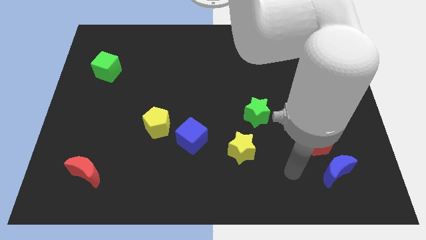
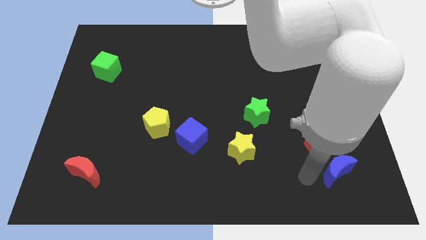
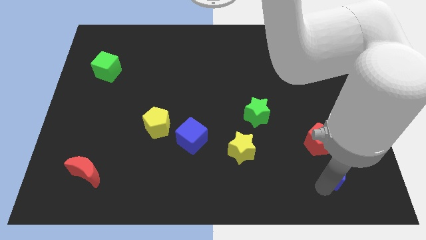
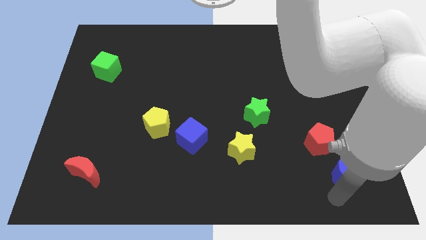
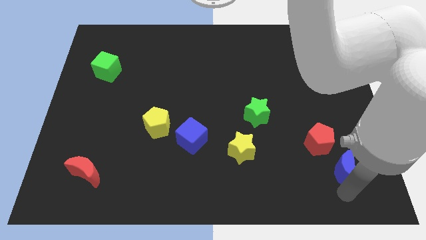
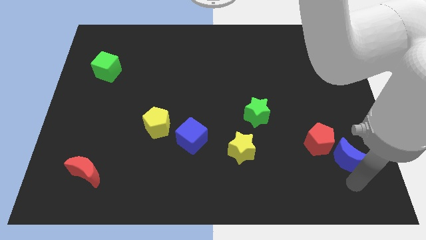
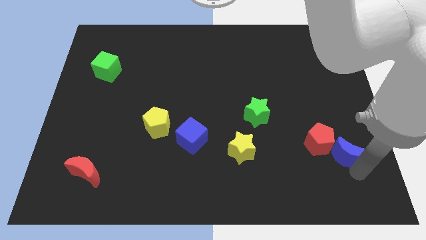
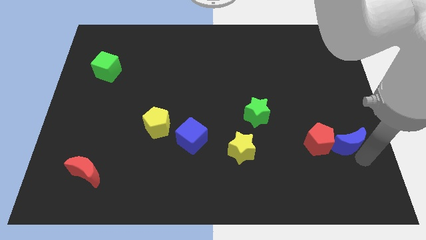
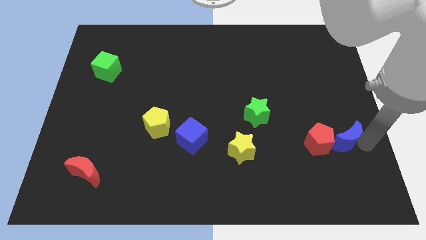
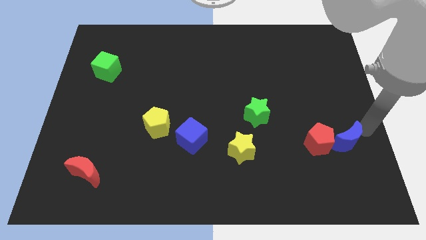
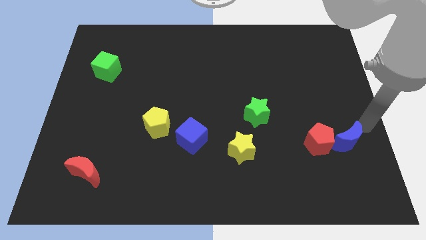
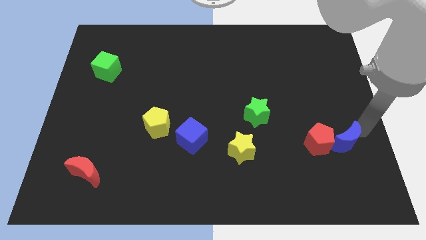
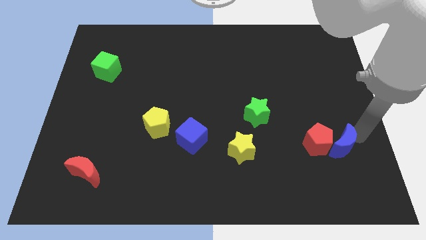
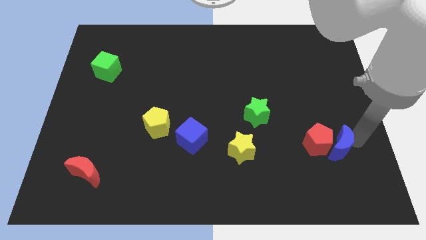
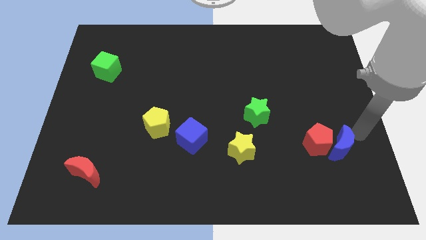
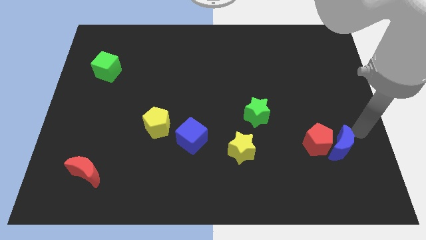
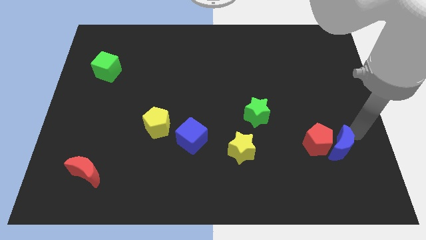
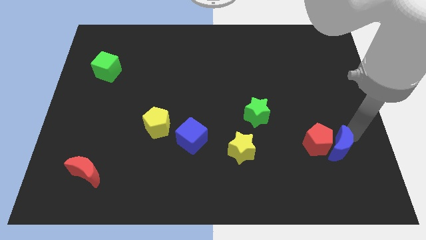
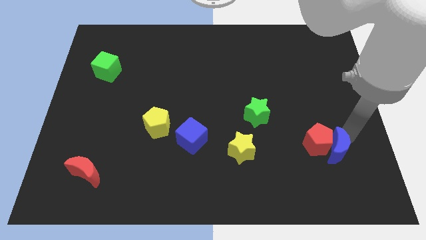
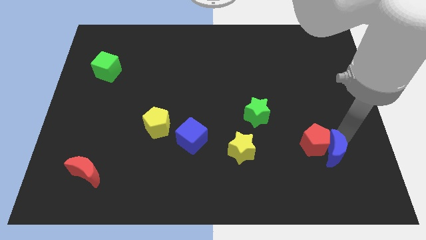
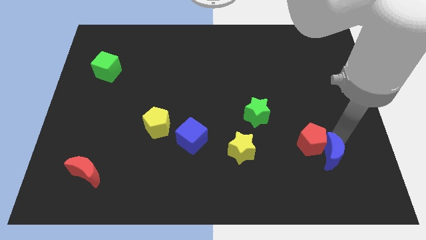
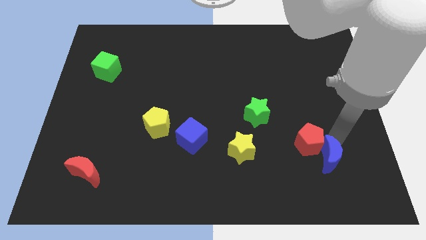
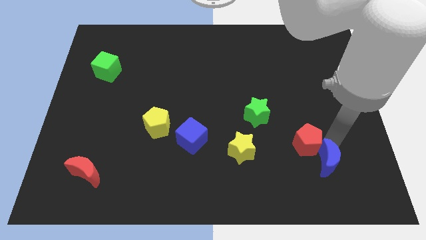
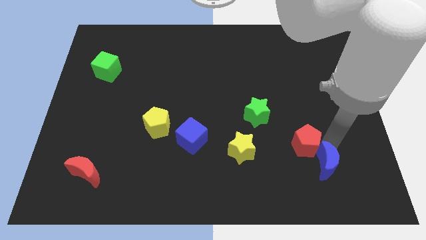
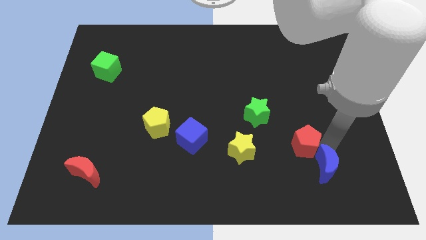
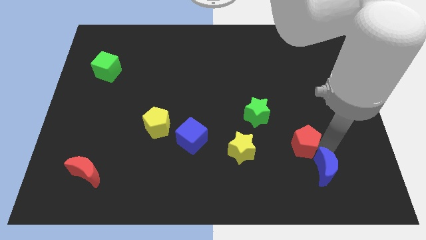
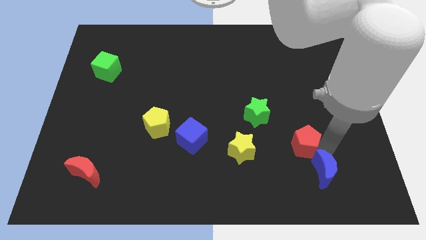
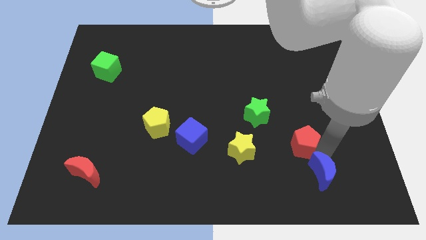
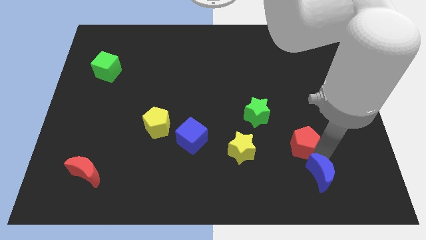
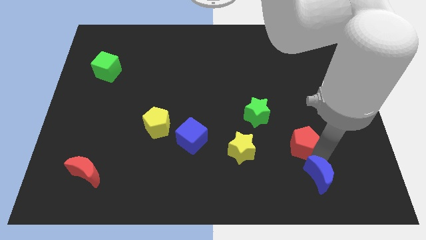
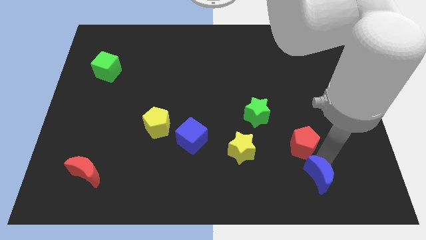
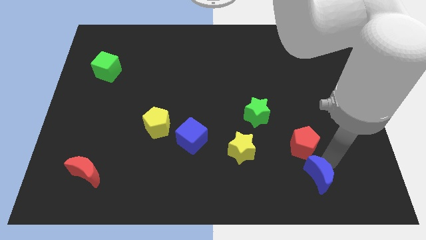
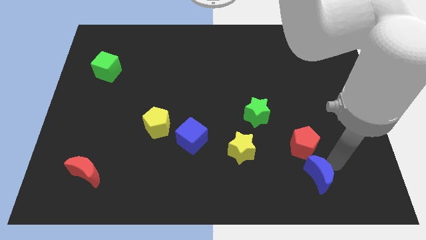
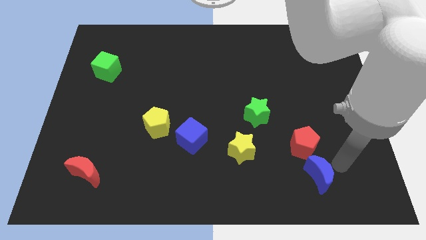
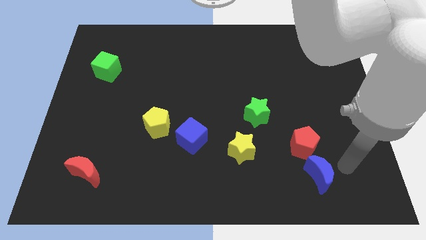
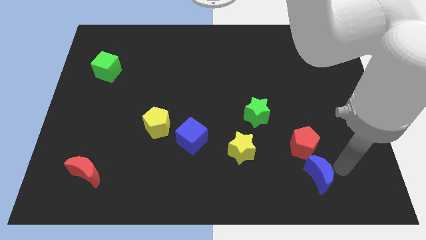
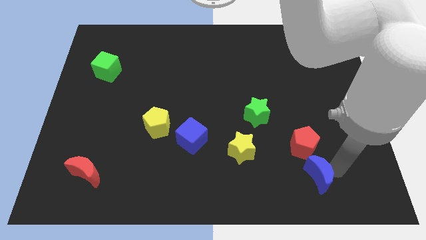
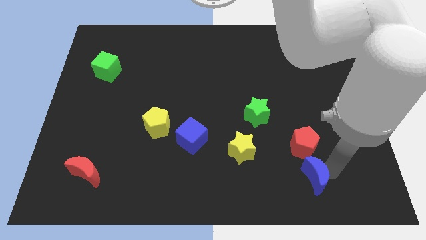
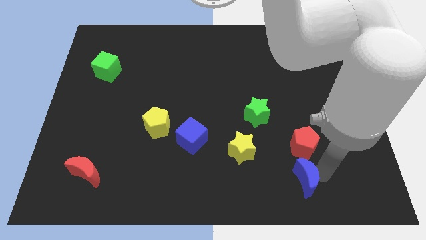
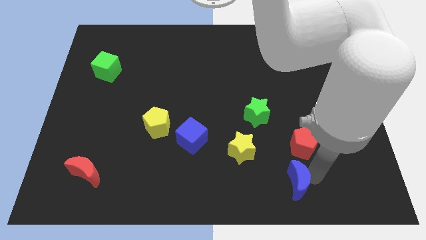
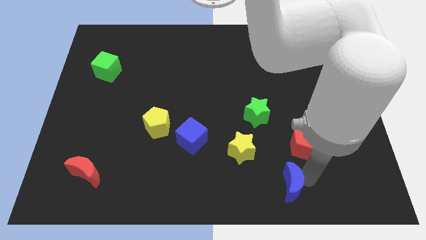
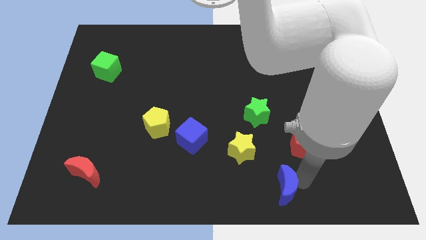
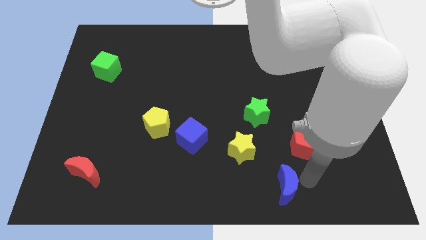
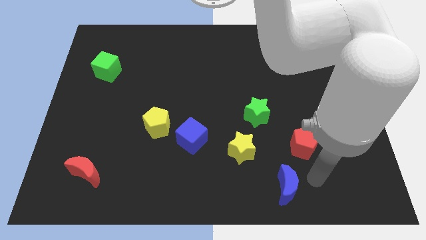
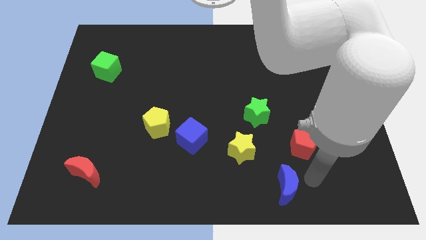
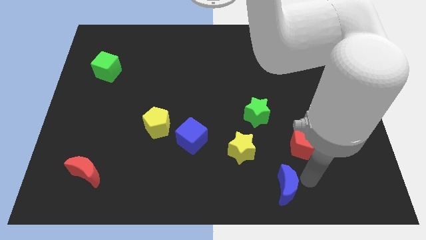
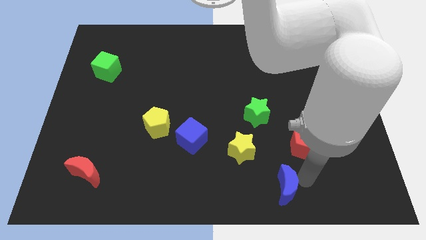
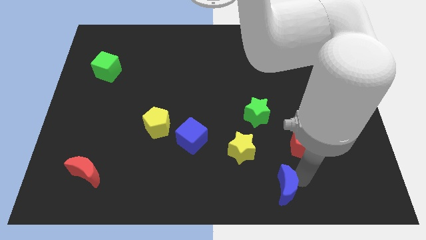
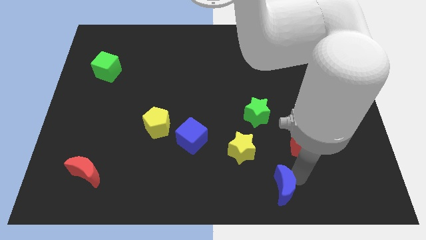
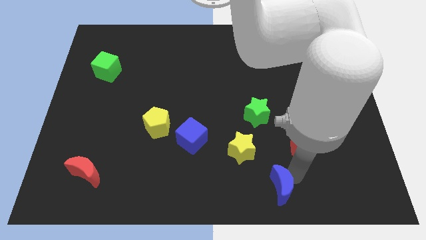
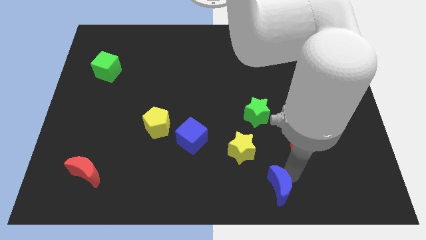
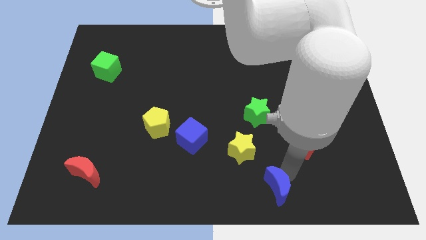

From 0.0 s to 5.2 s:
move the blue moon to the bottom side

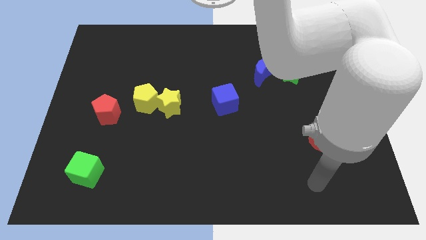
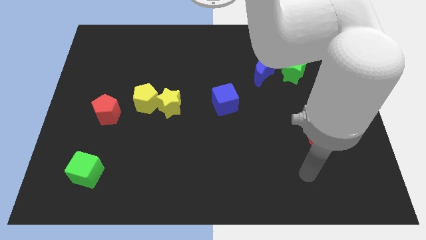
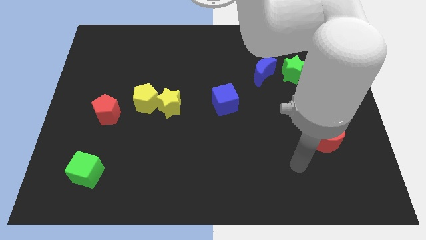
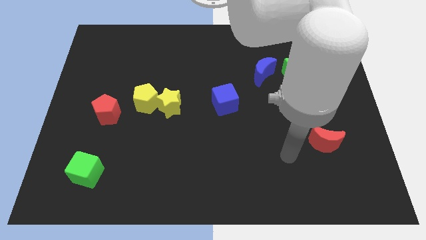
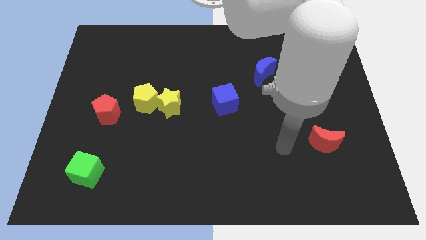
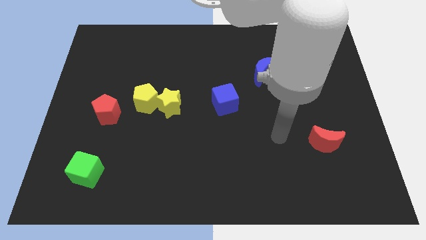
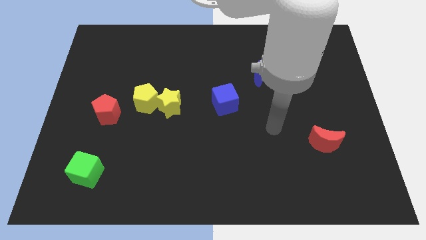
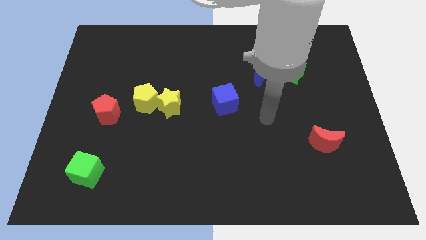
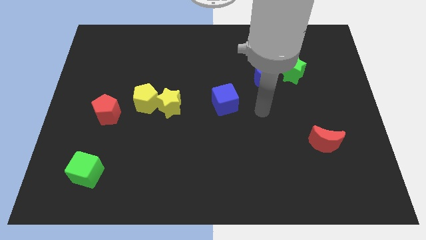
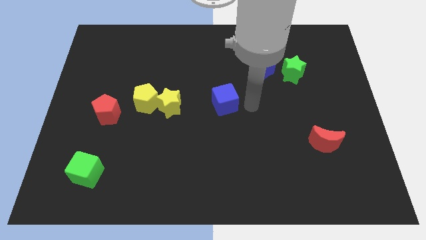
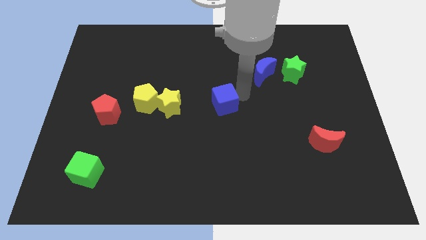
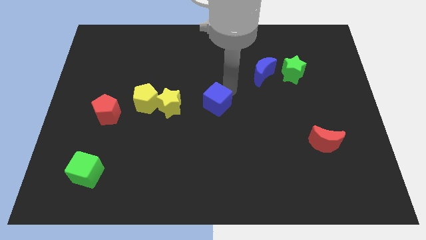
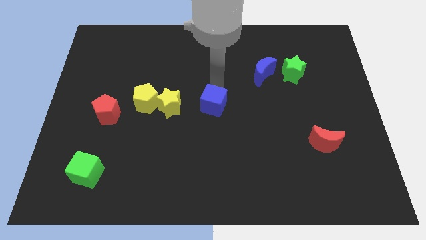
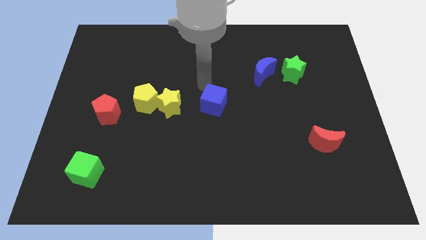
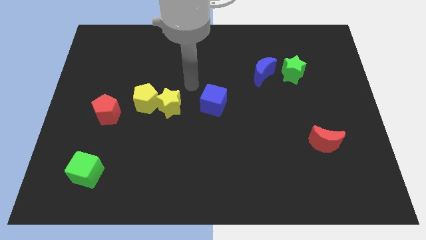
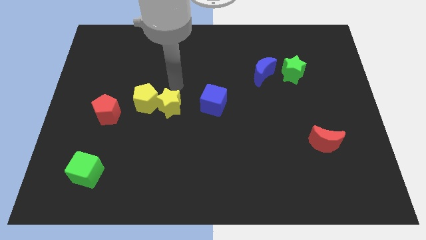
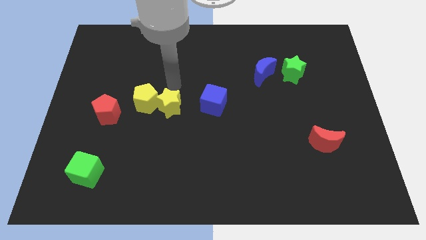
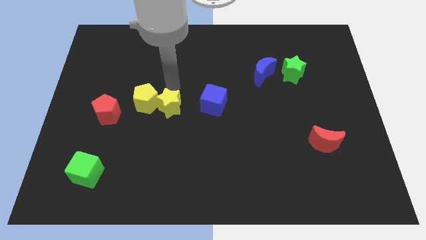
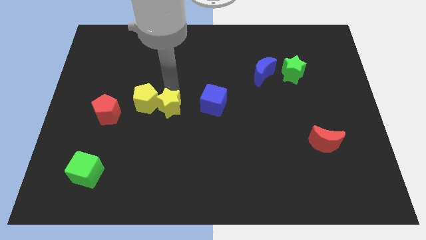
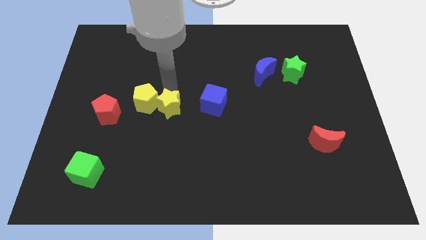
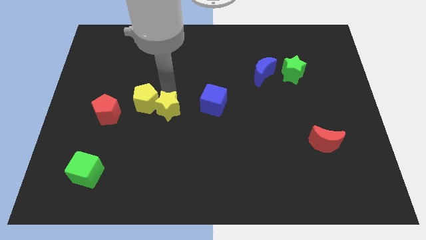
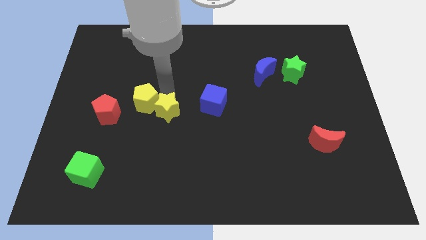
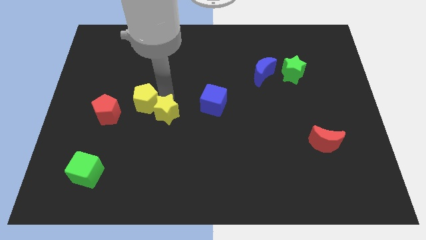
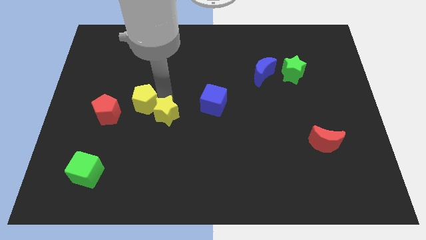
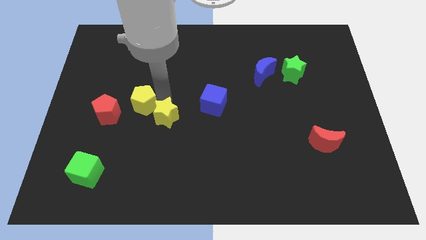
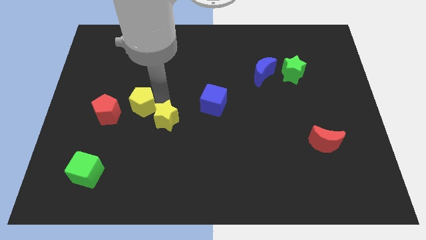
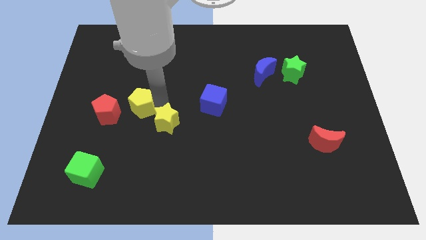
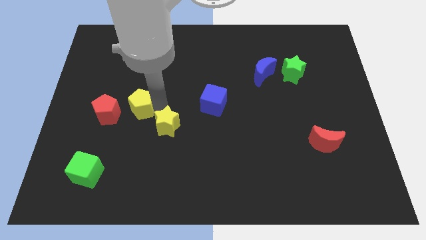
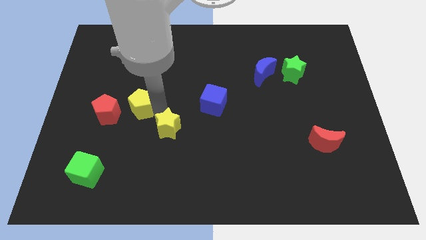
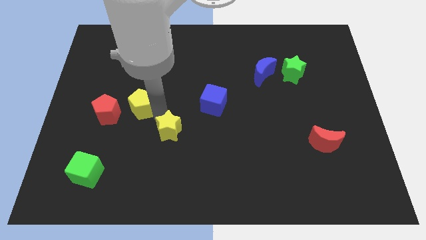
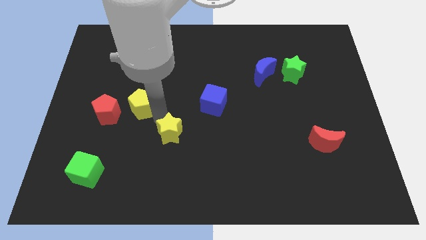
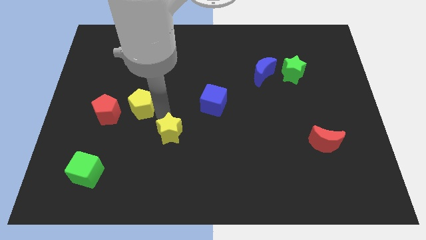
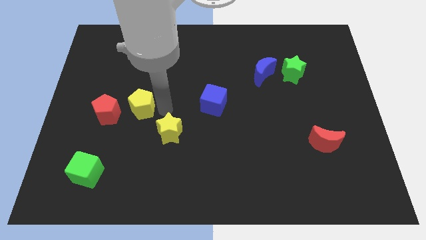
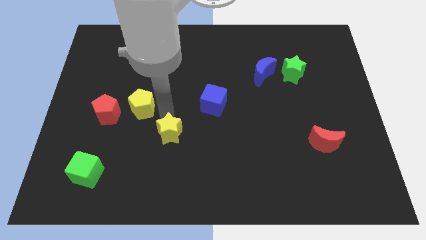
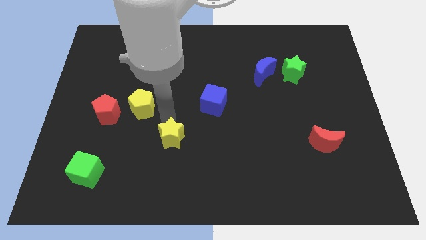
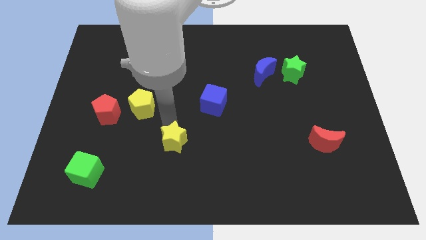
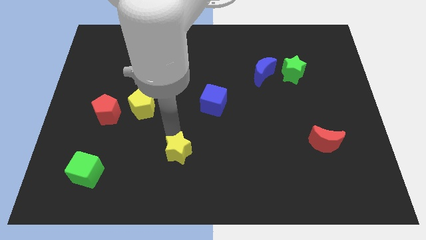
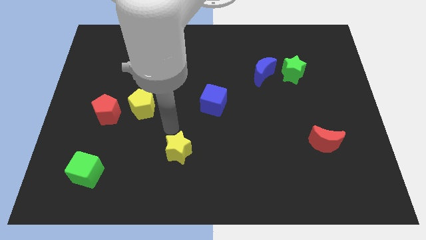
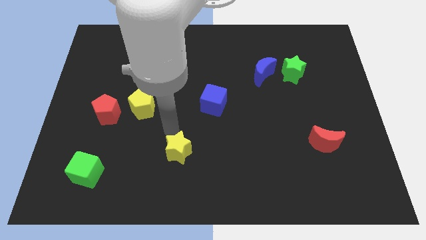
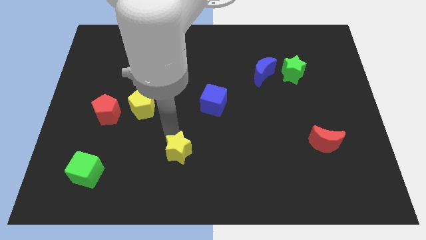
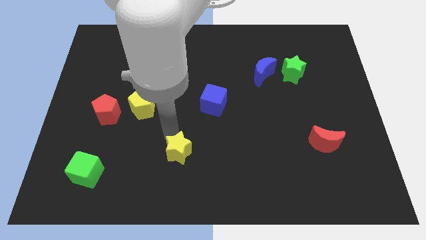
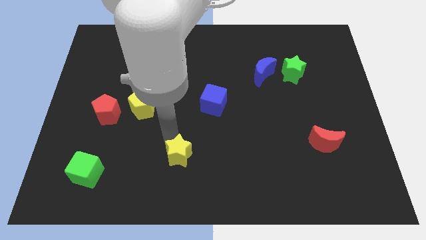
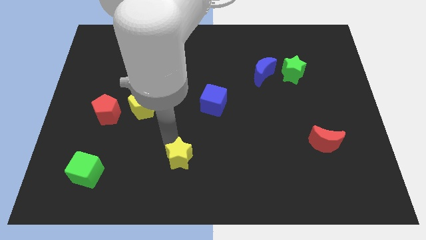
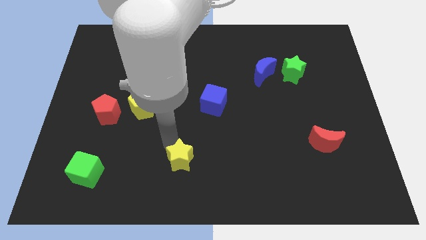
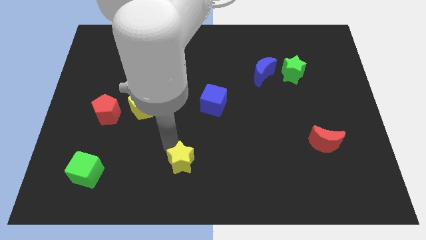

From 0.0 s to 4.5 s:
slide the yellow star to the bottom side
